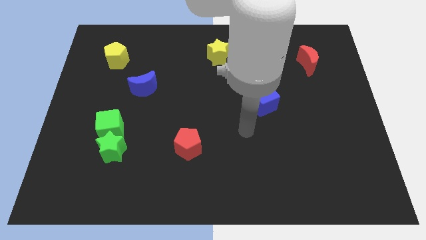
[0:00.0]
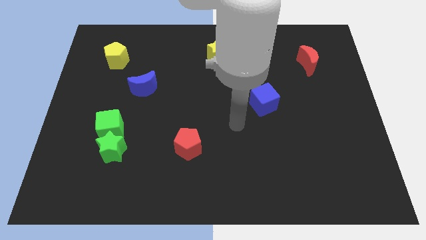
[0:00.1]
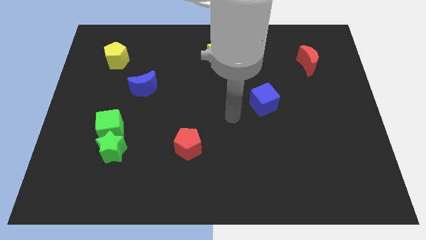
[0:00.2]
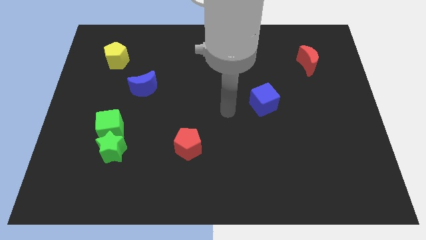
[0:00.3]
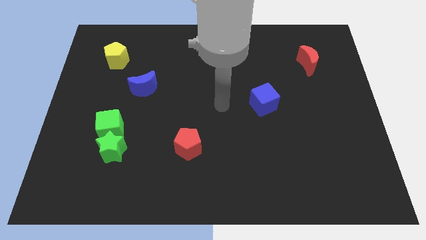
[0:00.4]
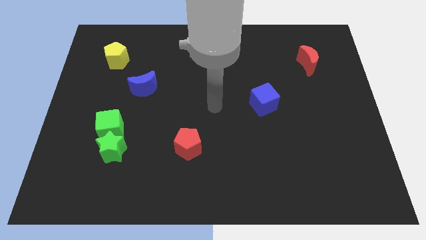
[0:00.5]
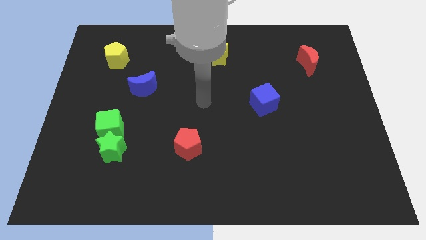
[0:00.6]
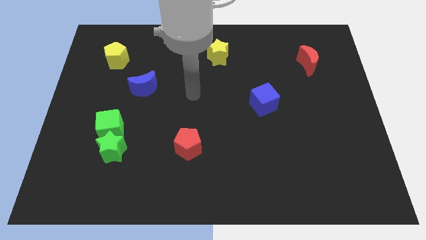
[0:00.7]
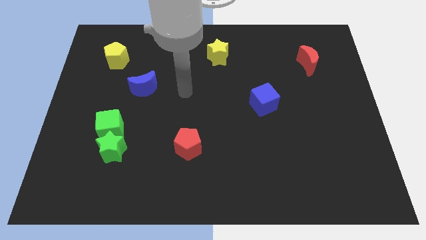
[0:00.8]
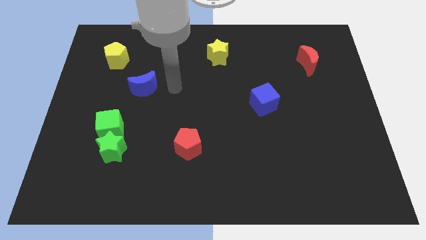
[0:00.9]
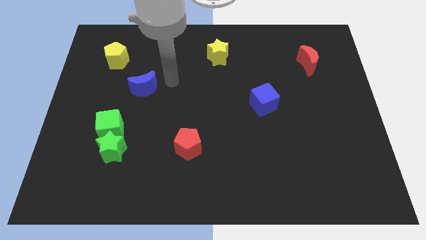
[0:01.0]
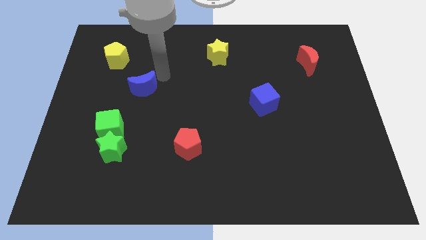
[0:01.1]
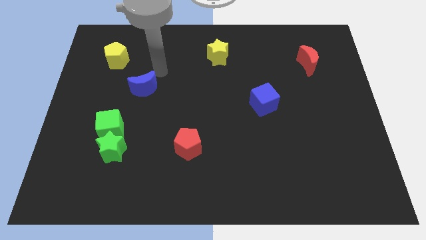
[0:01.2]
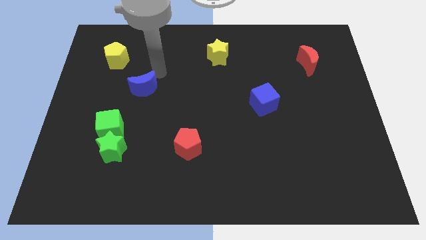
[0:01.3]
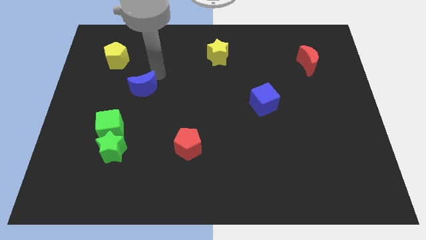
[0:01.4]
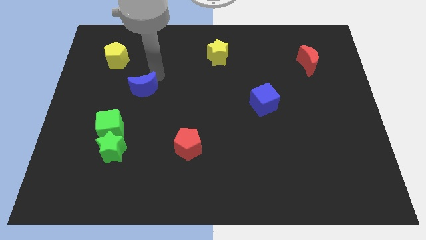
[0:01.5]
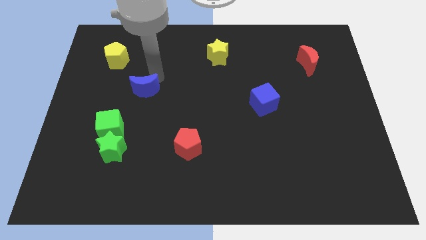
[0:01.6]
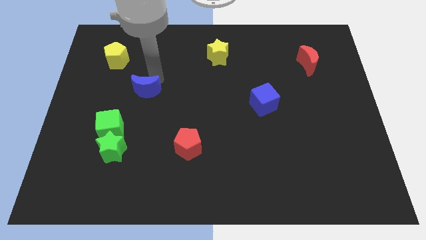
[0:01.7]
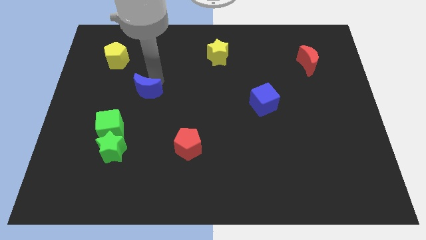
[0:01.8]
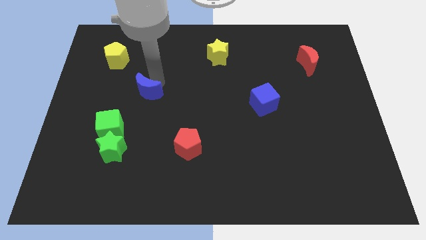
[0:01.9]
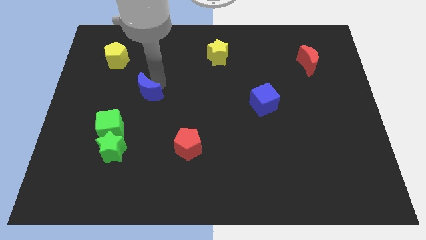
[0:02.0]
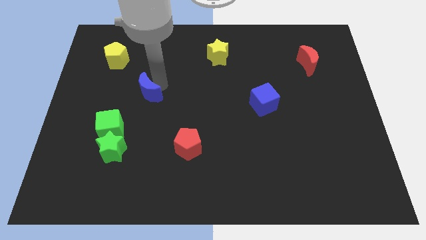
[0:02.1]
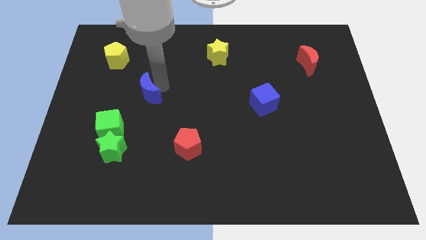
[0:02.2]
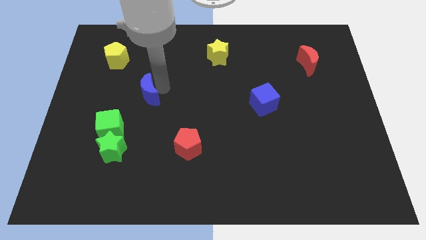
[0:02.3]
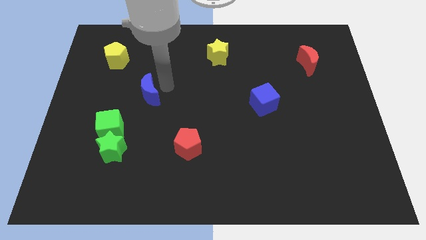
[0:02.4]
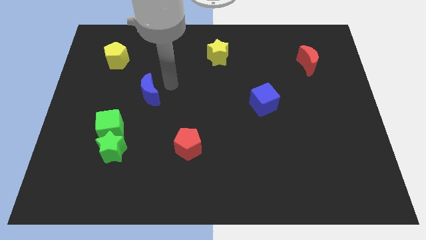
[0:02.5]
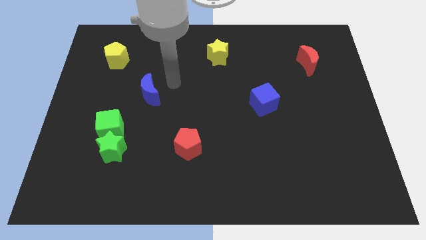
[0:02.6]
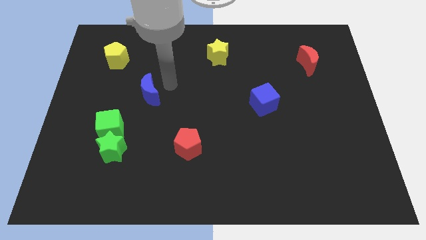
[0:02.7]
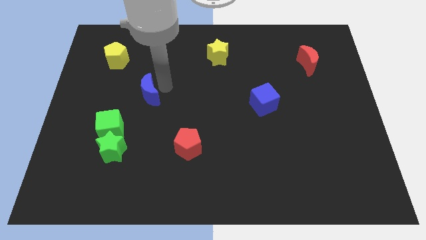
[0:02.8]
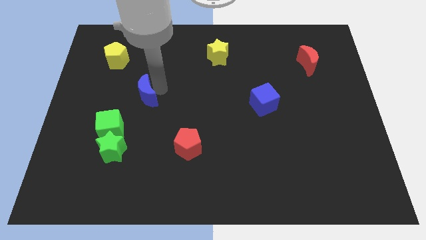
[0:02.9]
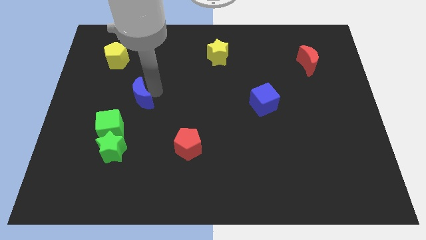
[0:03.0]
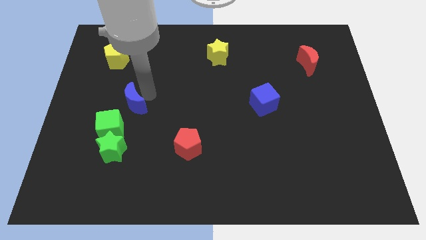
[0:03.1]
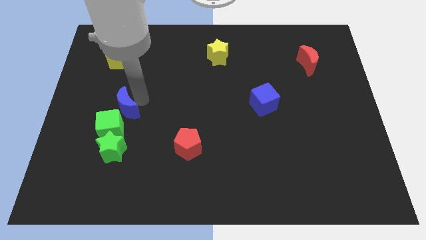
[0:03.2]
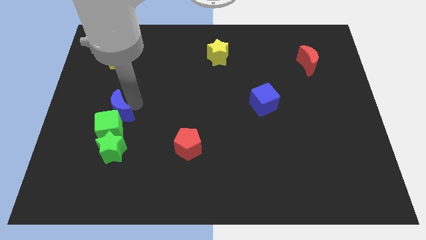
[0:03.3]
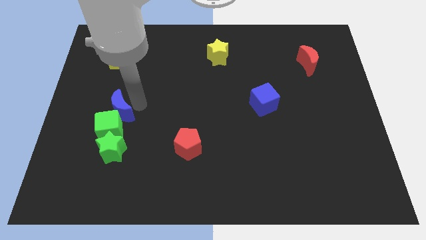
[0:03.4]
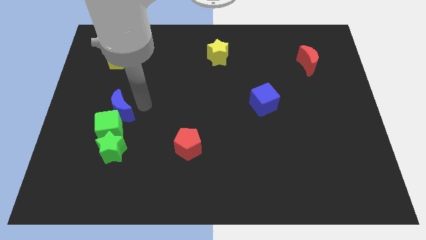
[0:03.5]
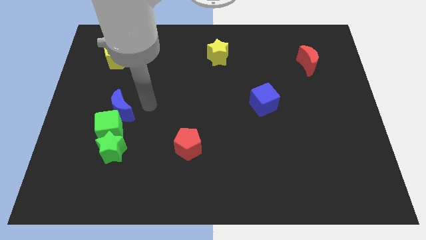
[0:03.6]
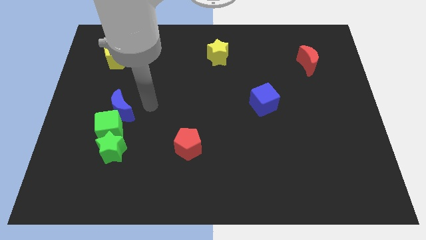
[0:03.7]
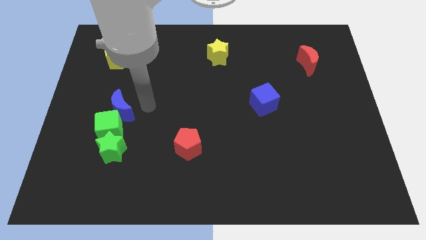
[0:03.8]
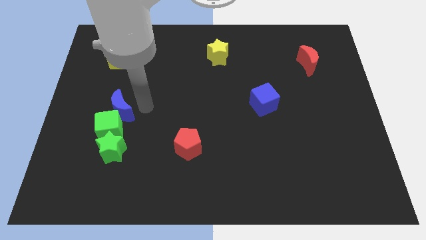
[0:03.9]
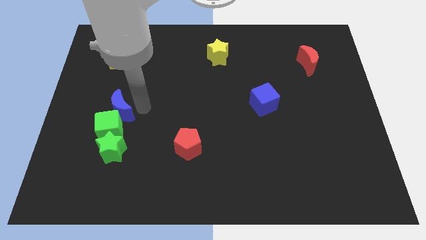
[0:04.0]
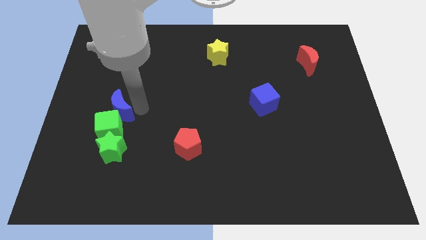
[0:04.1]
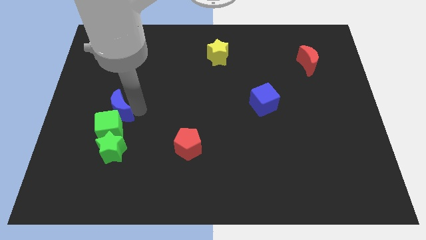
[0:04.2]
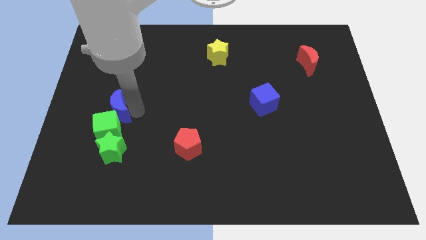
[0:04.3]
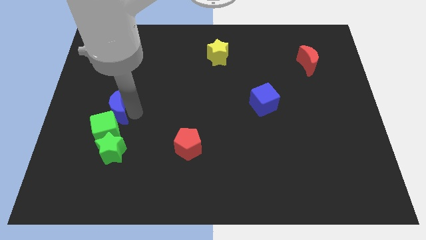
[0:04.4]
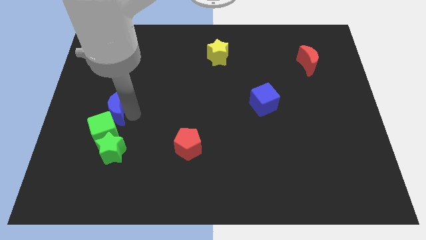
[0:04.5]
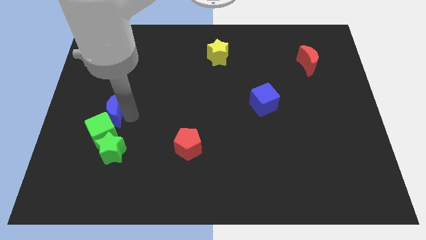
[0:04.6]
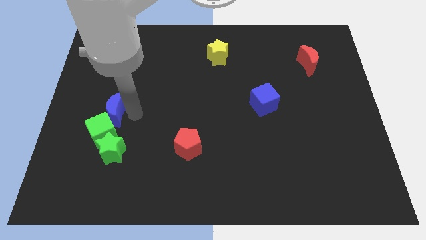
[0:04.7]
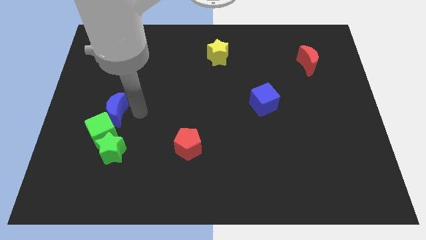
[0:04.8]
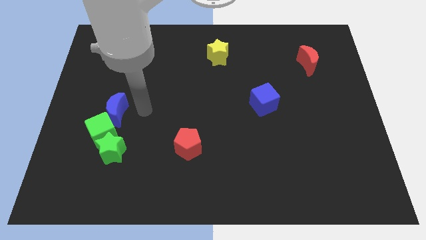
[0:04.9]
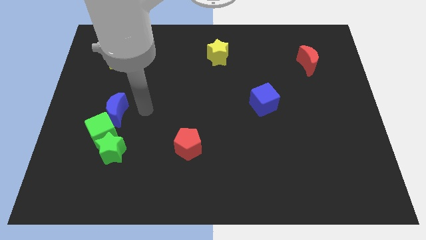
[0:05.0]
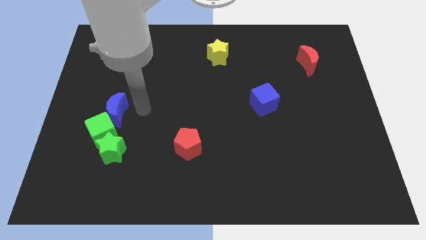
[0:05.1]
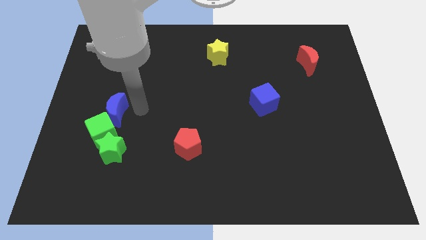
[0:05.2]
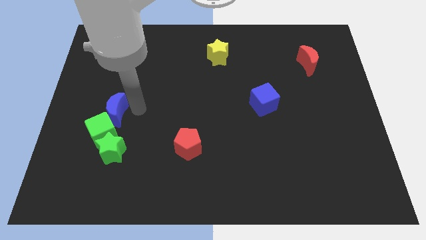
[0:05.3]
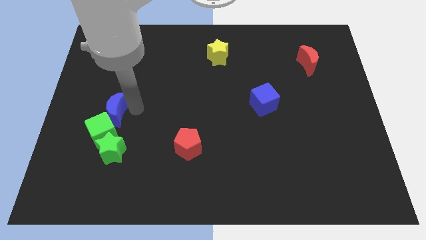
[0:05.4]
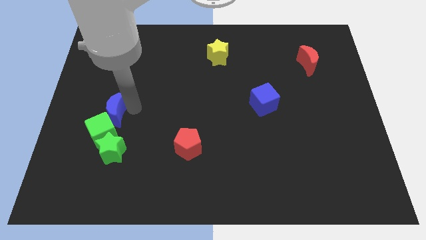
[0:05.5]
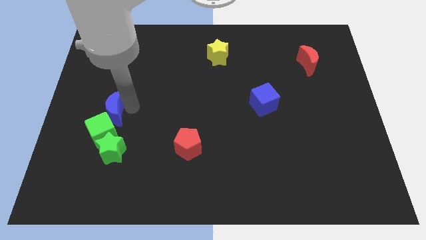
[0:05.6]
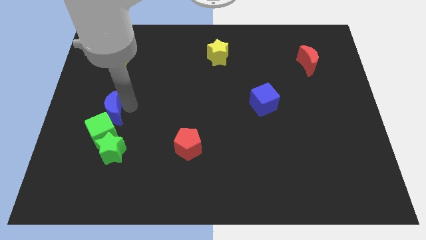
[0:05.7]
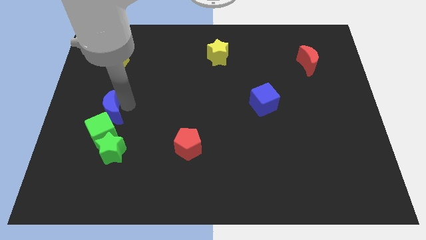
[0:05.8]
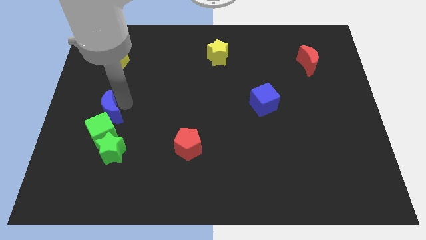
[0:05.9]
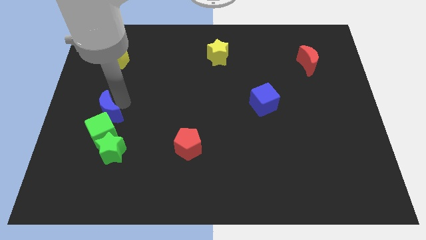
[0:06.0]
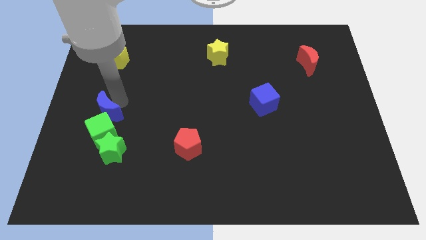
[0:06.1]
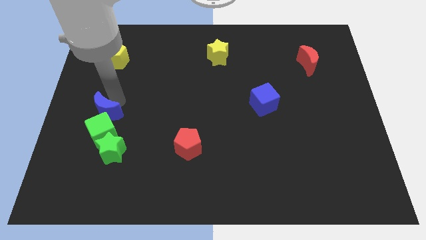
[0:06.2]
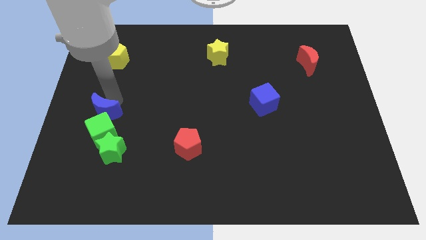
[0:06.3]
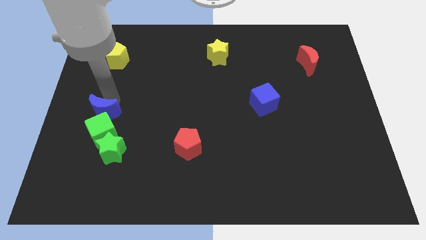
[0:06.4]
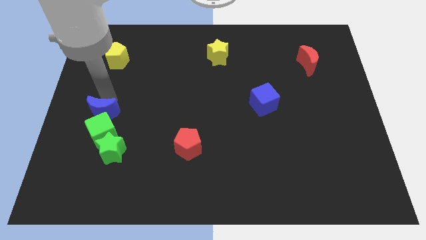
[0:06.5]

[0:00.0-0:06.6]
push the blue moon to the top left side of the green star
